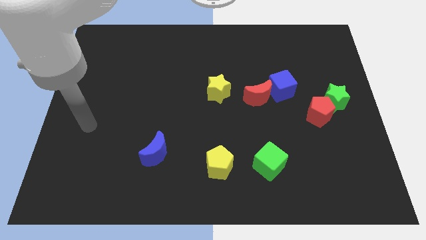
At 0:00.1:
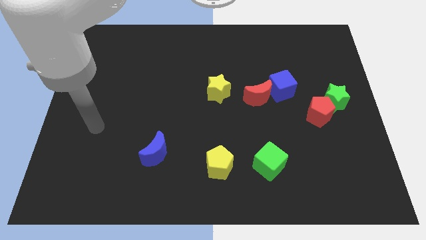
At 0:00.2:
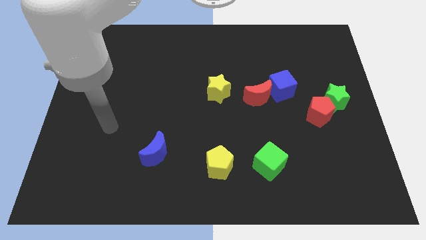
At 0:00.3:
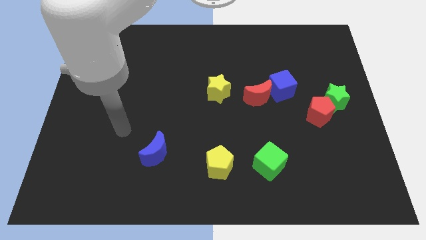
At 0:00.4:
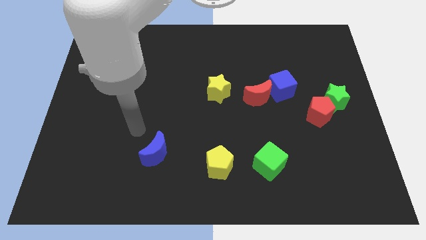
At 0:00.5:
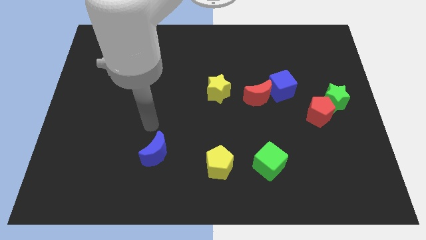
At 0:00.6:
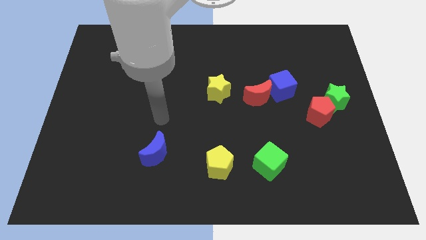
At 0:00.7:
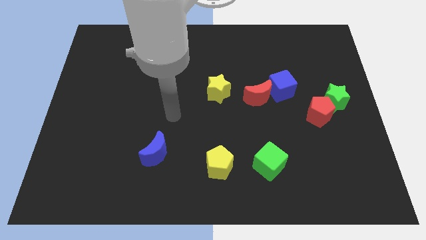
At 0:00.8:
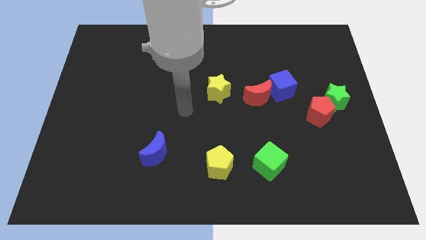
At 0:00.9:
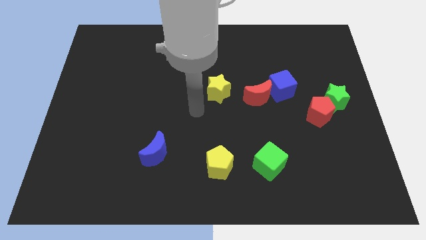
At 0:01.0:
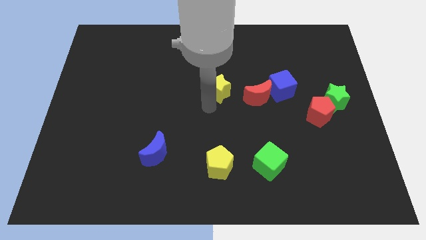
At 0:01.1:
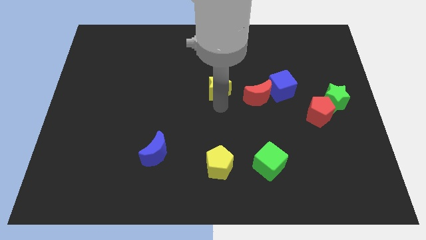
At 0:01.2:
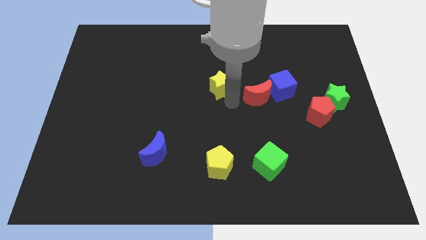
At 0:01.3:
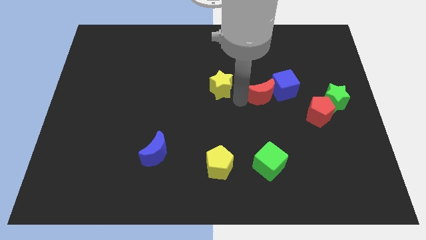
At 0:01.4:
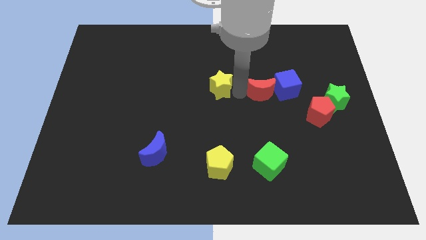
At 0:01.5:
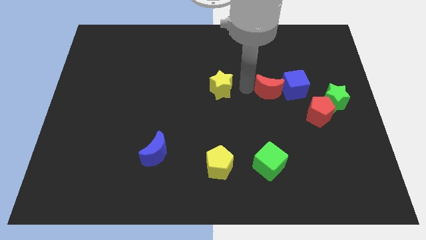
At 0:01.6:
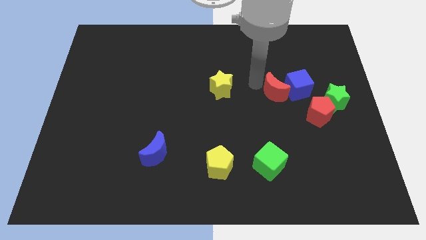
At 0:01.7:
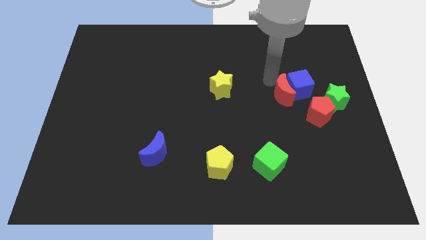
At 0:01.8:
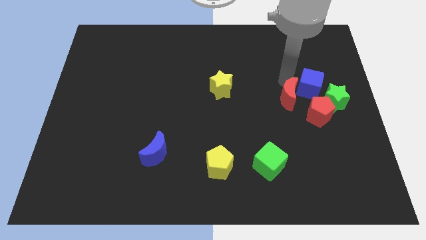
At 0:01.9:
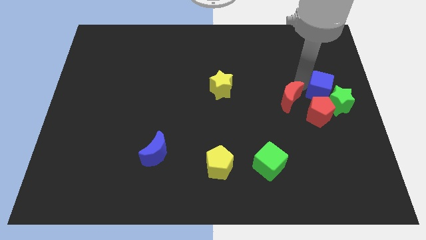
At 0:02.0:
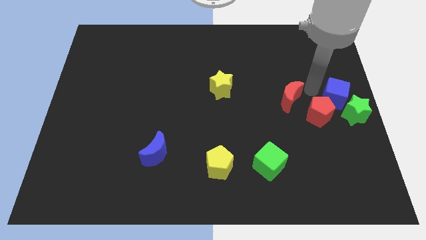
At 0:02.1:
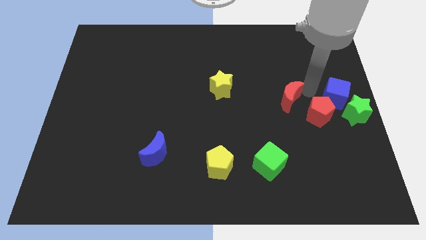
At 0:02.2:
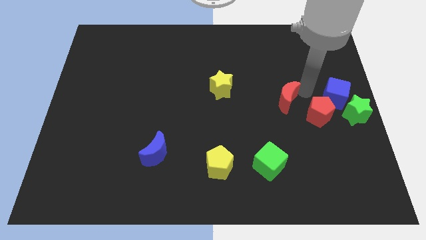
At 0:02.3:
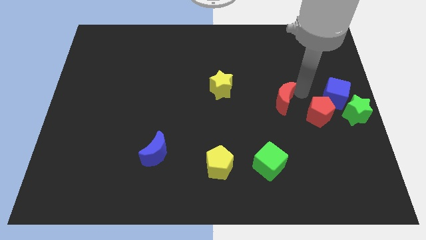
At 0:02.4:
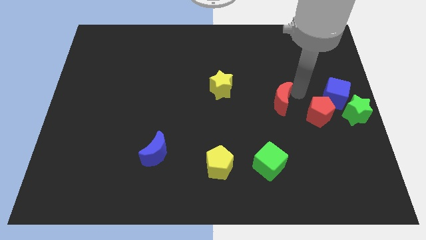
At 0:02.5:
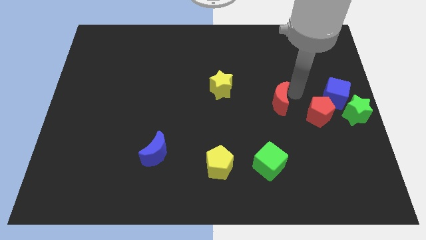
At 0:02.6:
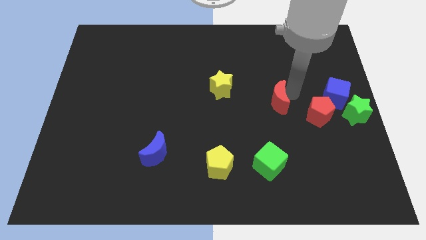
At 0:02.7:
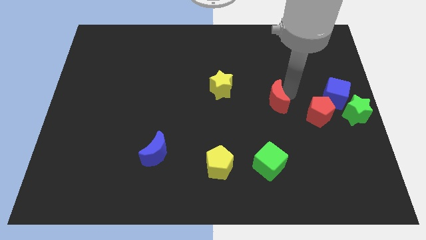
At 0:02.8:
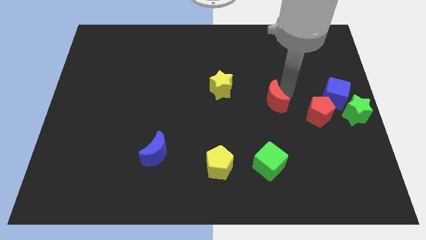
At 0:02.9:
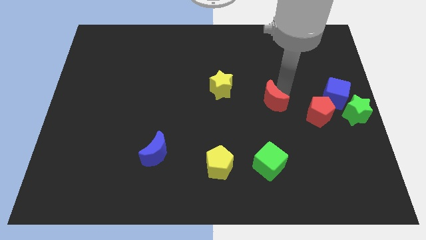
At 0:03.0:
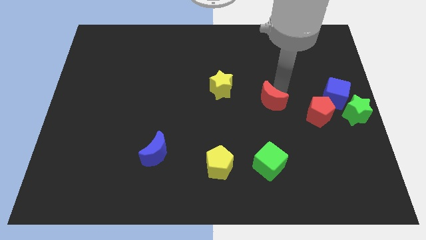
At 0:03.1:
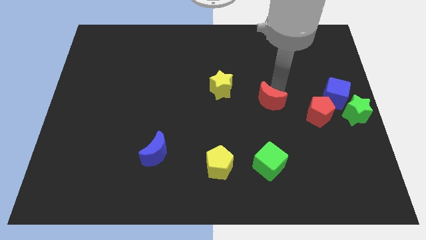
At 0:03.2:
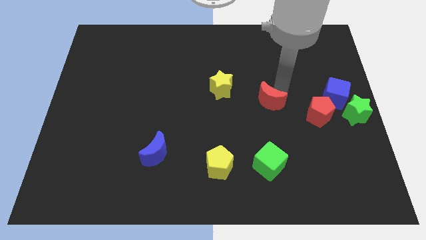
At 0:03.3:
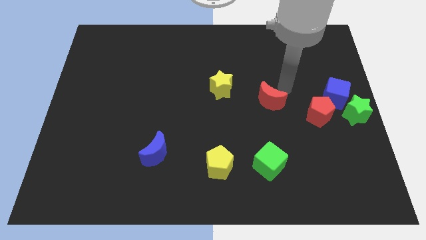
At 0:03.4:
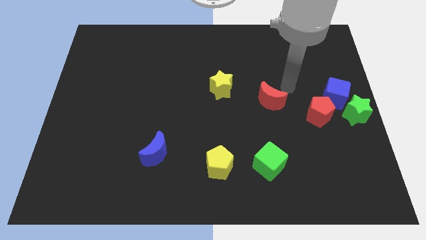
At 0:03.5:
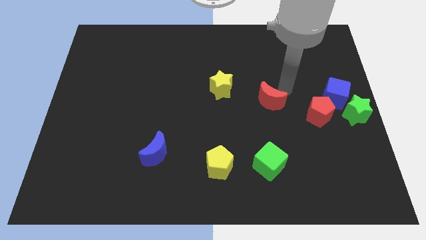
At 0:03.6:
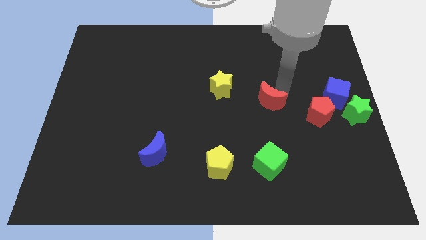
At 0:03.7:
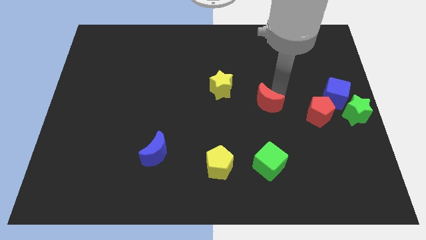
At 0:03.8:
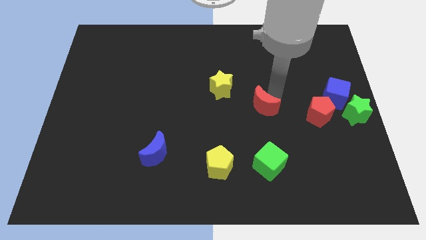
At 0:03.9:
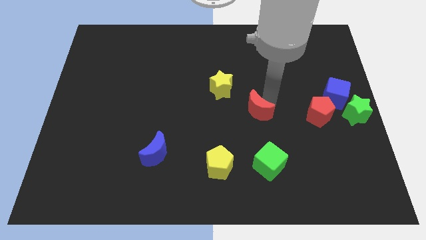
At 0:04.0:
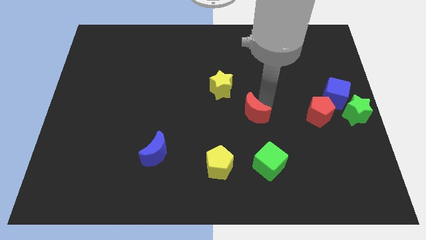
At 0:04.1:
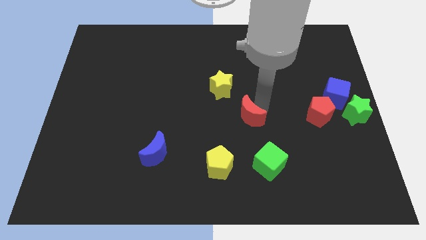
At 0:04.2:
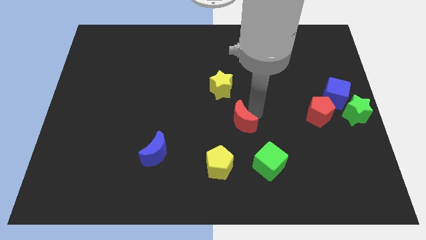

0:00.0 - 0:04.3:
push the red moon a bit downwards and left

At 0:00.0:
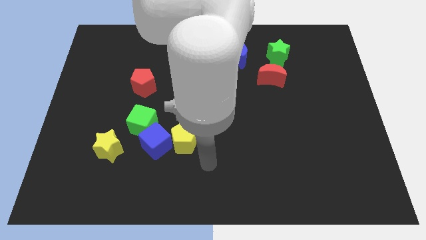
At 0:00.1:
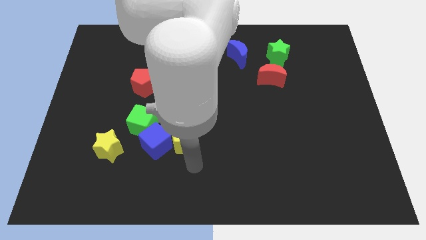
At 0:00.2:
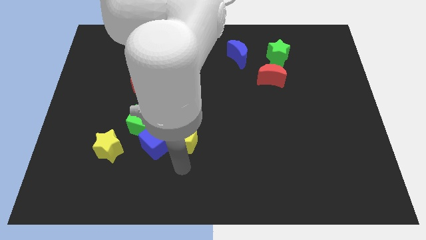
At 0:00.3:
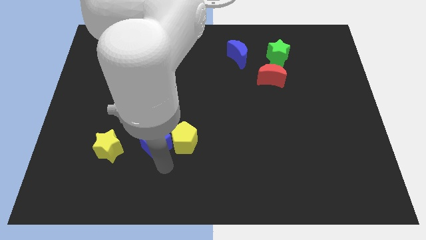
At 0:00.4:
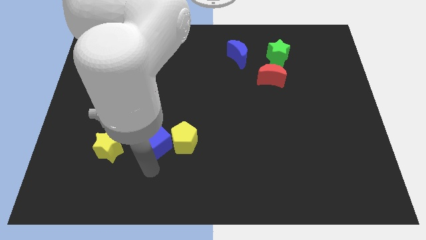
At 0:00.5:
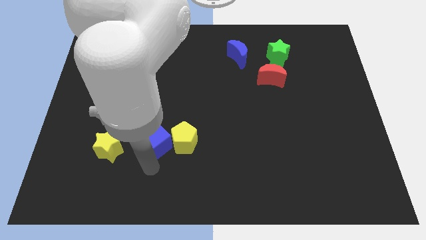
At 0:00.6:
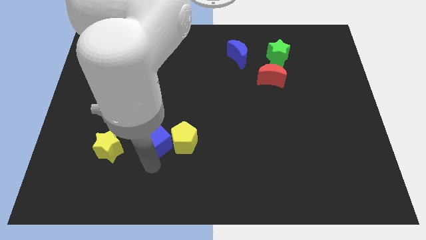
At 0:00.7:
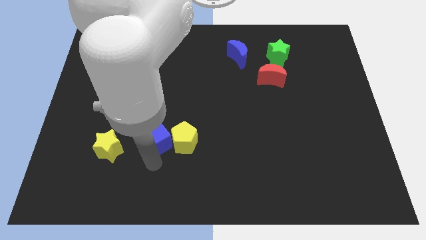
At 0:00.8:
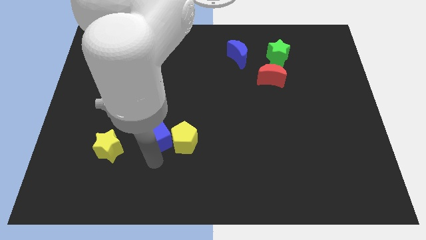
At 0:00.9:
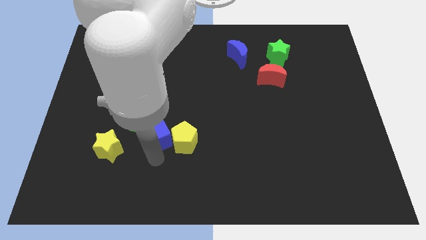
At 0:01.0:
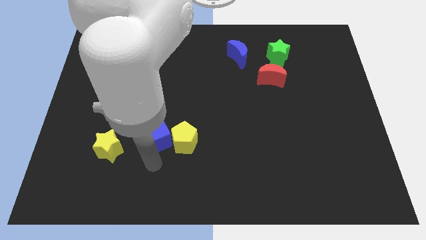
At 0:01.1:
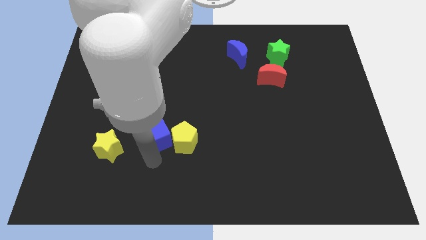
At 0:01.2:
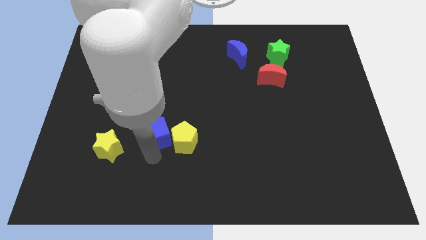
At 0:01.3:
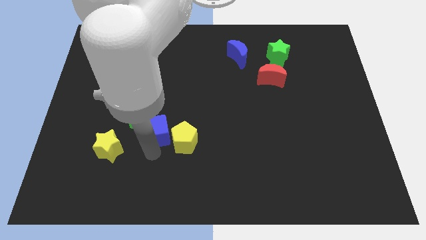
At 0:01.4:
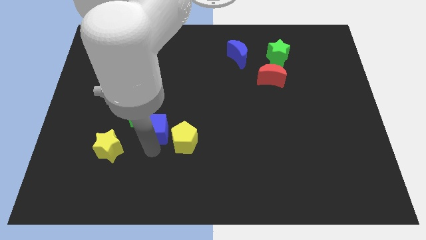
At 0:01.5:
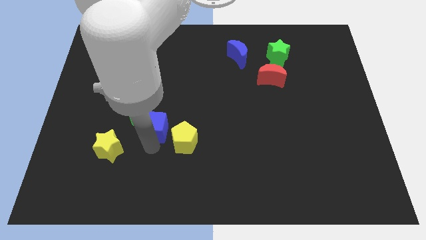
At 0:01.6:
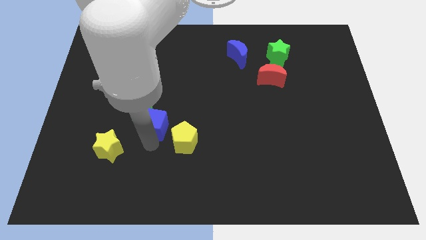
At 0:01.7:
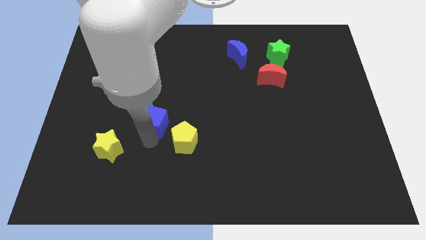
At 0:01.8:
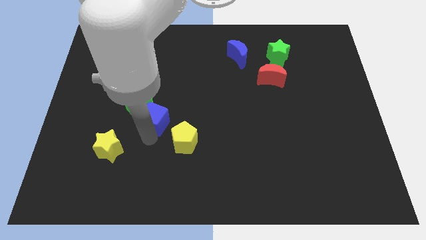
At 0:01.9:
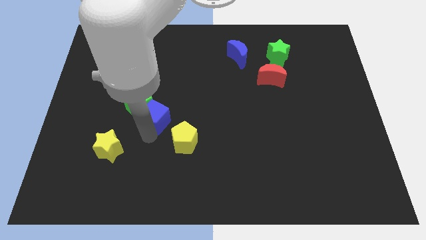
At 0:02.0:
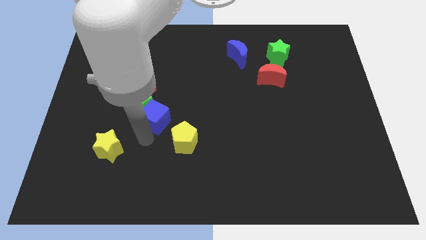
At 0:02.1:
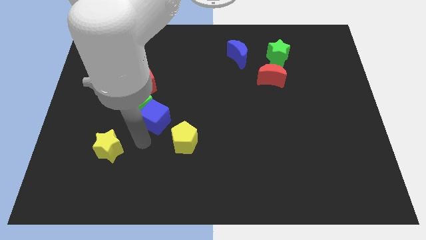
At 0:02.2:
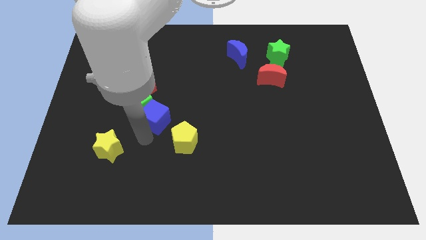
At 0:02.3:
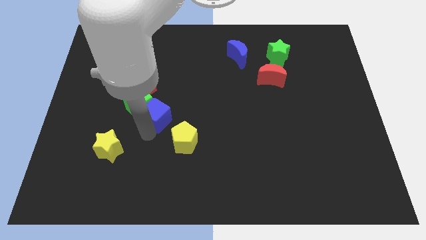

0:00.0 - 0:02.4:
move the blue cube upwards somewhat

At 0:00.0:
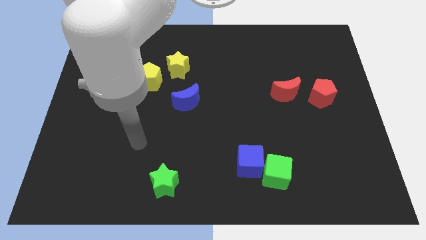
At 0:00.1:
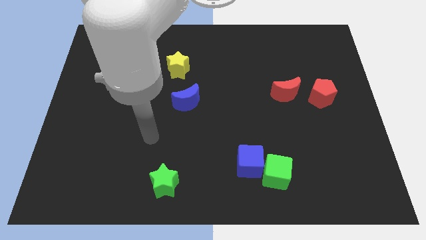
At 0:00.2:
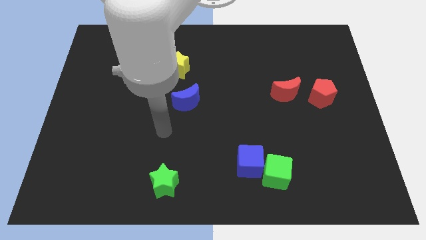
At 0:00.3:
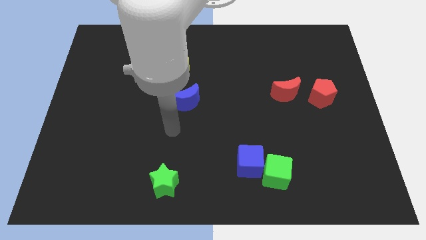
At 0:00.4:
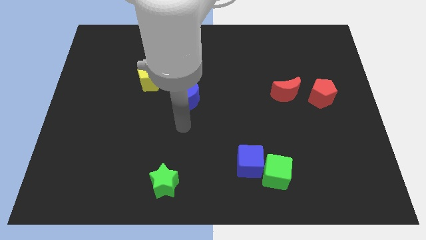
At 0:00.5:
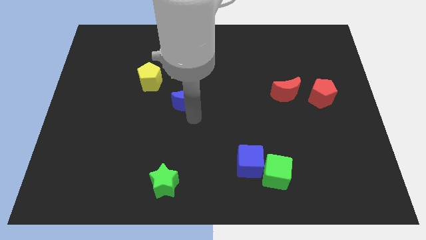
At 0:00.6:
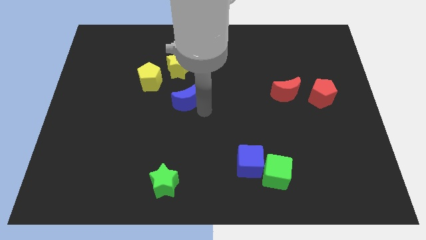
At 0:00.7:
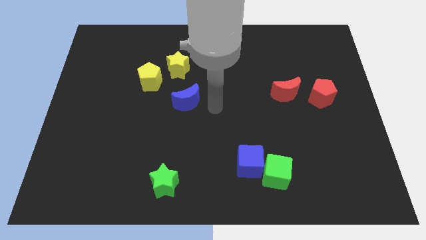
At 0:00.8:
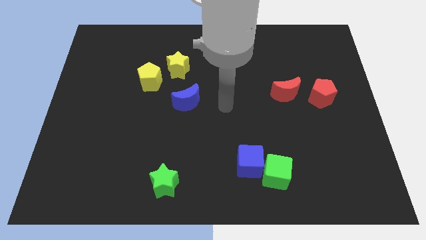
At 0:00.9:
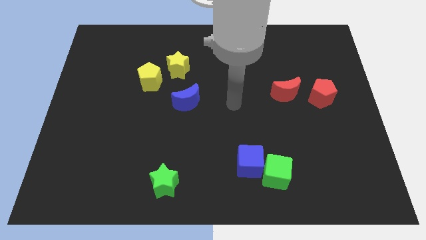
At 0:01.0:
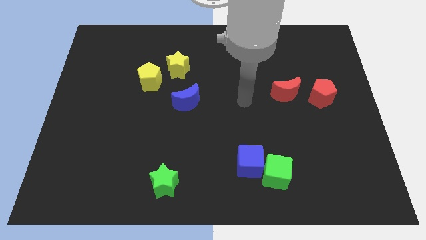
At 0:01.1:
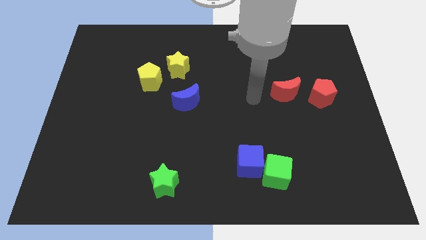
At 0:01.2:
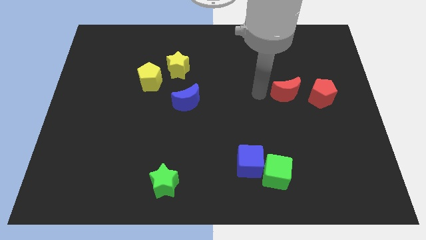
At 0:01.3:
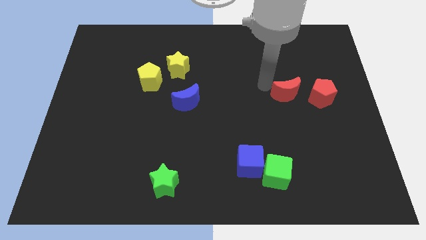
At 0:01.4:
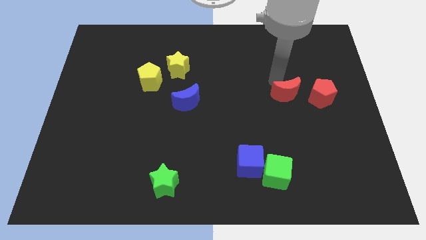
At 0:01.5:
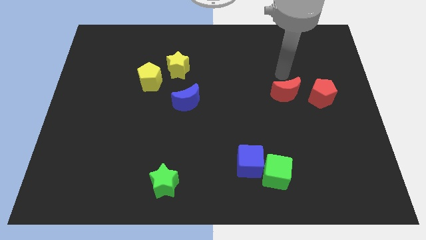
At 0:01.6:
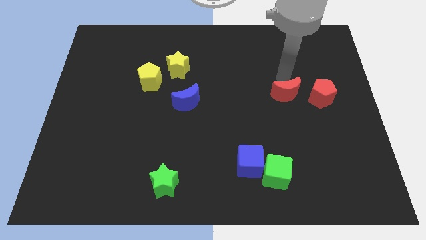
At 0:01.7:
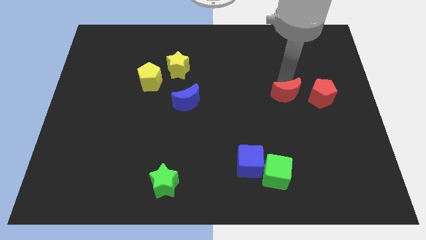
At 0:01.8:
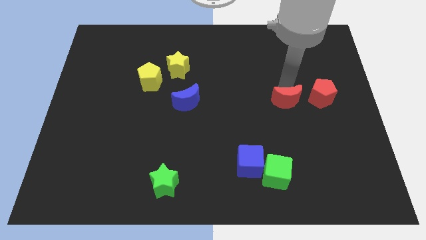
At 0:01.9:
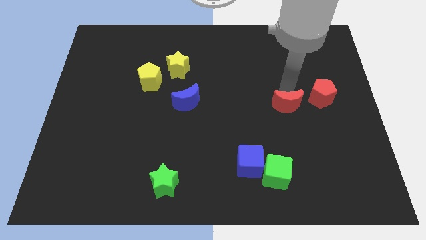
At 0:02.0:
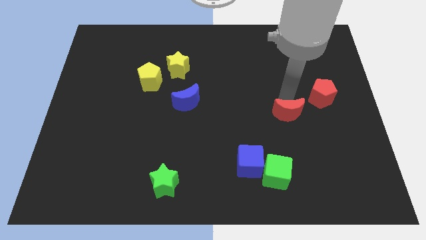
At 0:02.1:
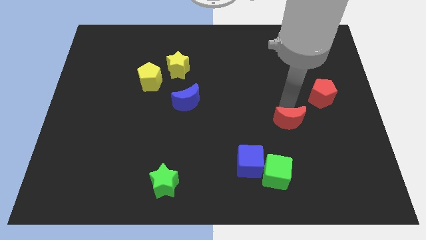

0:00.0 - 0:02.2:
move the red moon a little bit down
